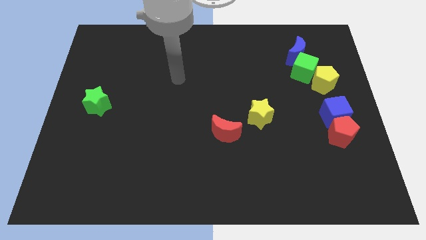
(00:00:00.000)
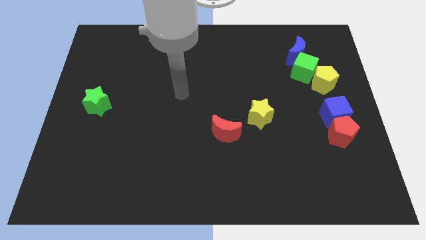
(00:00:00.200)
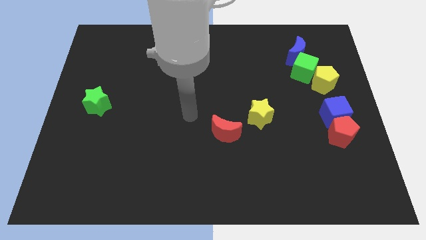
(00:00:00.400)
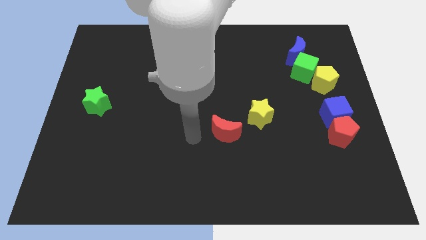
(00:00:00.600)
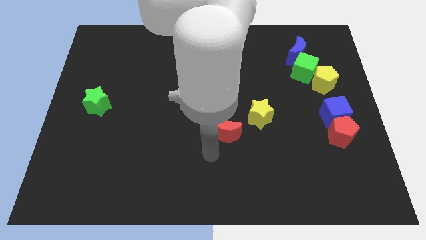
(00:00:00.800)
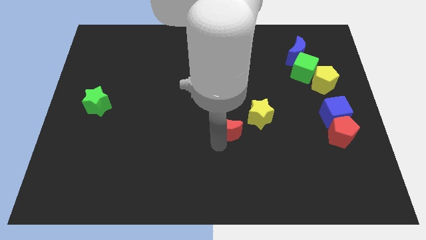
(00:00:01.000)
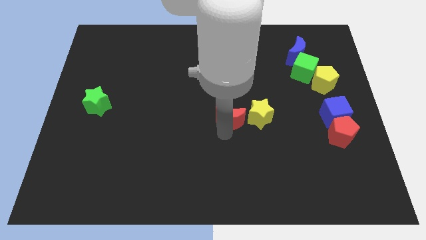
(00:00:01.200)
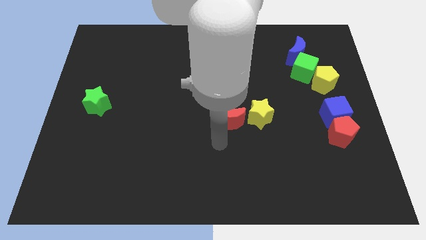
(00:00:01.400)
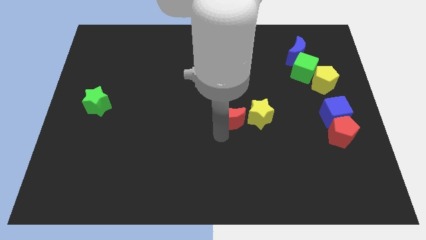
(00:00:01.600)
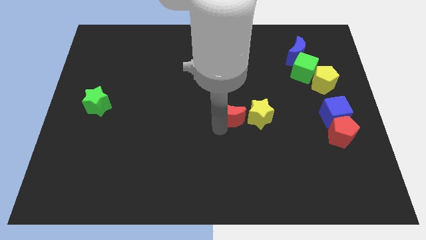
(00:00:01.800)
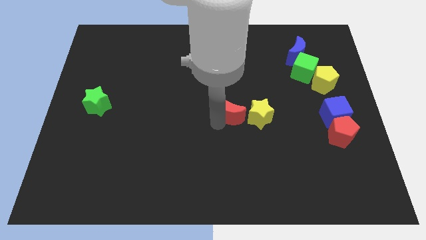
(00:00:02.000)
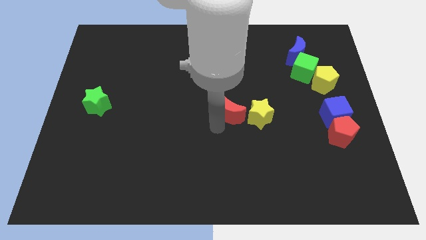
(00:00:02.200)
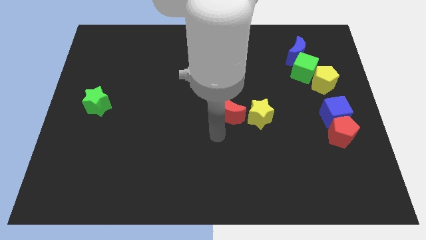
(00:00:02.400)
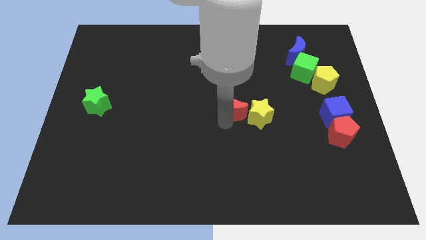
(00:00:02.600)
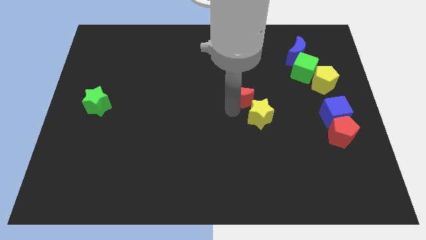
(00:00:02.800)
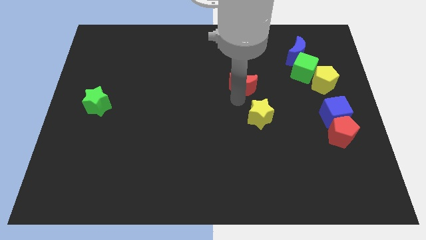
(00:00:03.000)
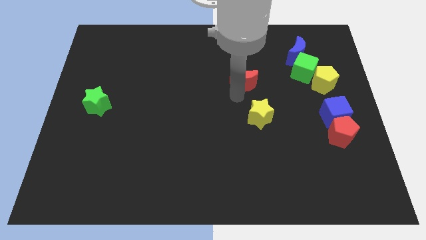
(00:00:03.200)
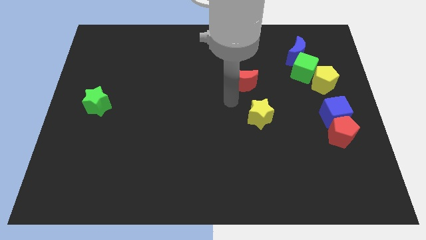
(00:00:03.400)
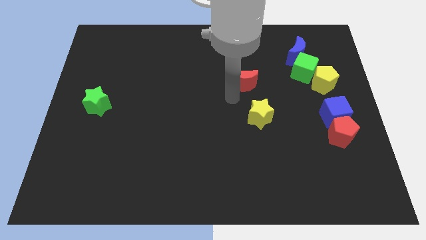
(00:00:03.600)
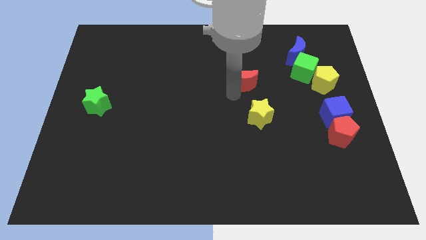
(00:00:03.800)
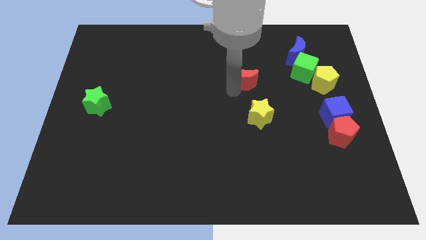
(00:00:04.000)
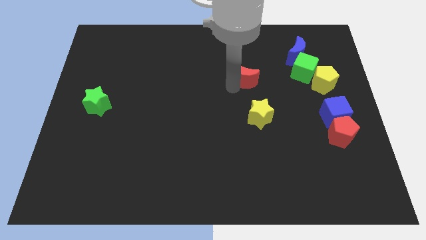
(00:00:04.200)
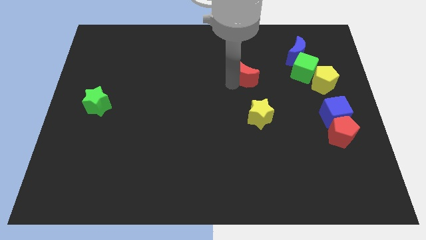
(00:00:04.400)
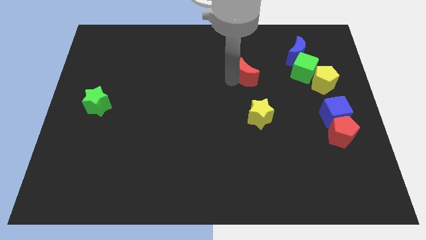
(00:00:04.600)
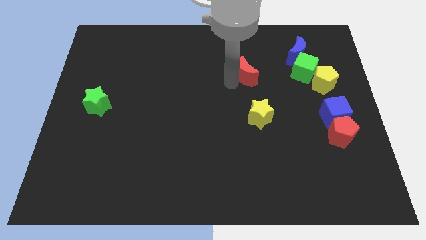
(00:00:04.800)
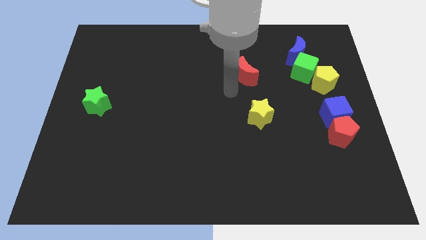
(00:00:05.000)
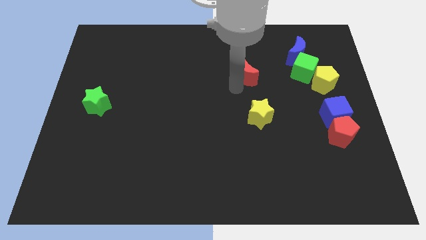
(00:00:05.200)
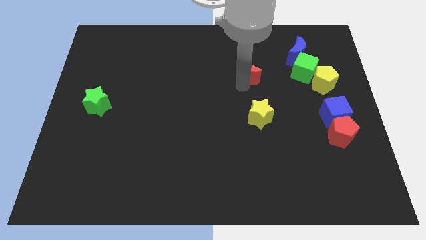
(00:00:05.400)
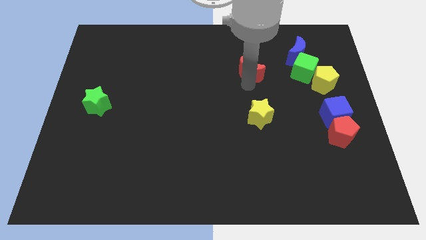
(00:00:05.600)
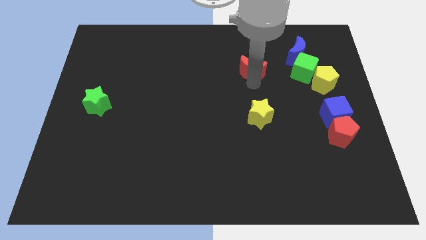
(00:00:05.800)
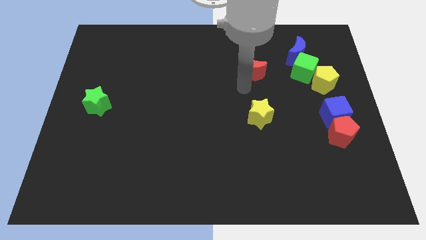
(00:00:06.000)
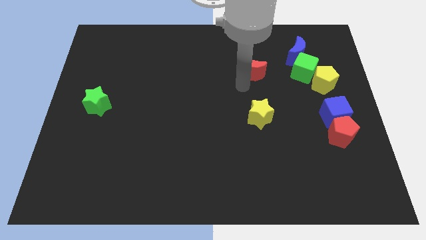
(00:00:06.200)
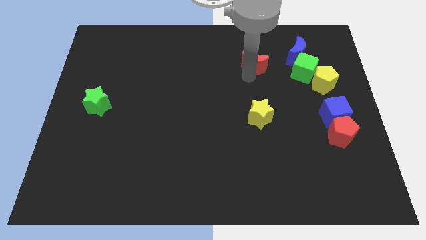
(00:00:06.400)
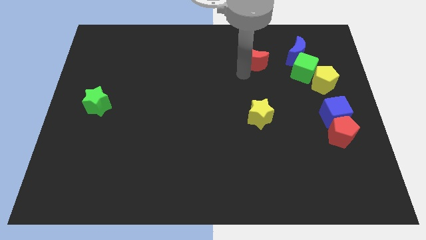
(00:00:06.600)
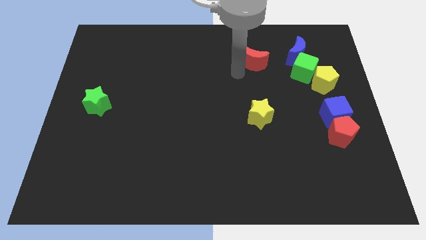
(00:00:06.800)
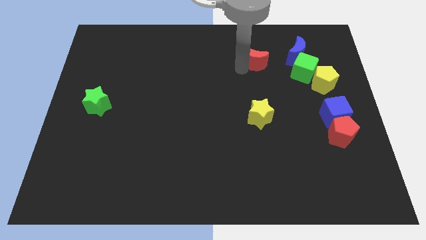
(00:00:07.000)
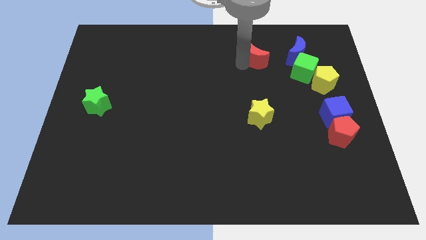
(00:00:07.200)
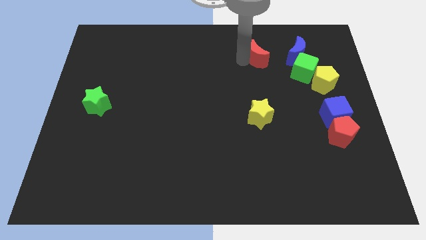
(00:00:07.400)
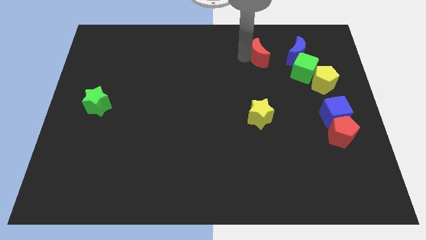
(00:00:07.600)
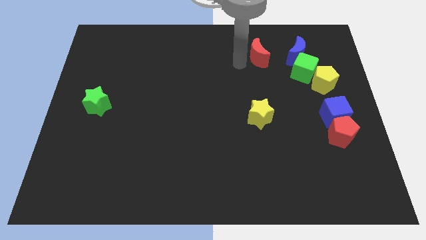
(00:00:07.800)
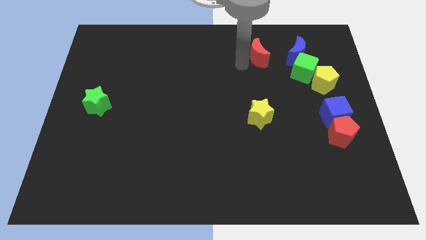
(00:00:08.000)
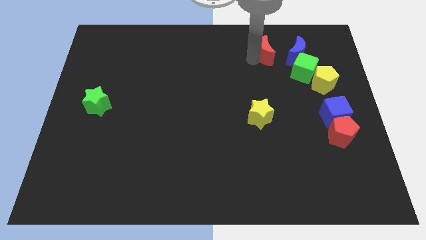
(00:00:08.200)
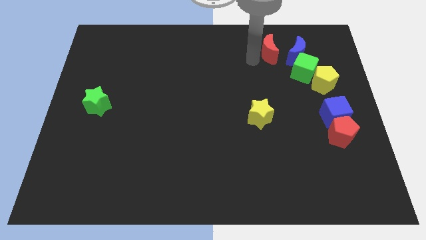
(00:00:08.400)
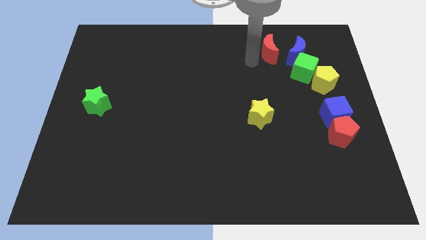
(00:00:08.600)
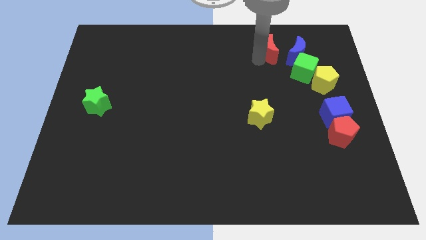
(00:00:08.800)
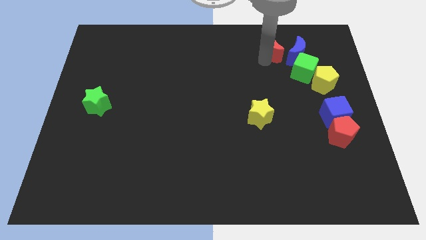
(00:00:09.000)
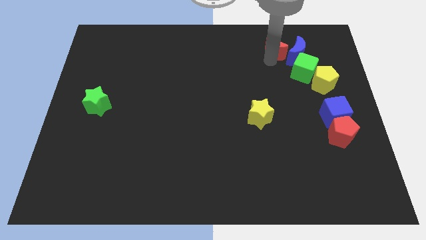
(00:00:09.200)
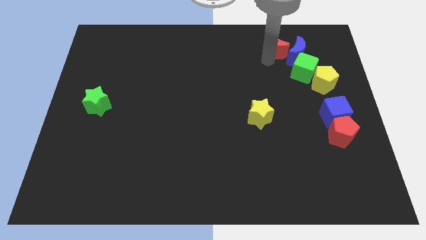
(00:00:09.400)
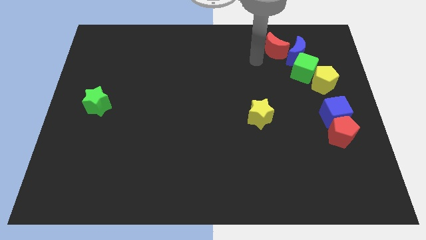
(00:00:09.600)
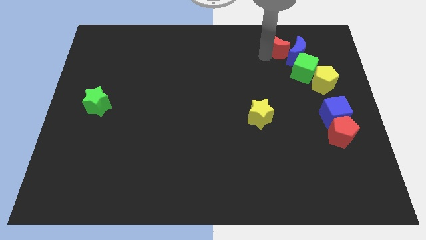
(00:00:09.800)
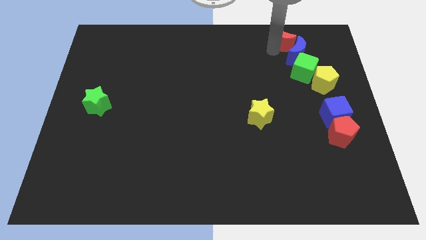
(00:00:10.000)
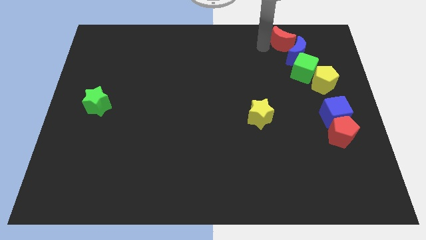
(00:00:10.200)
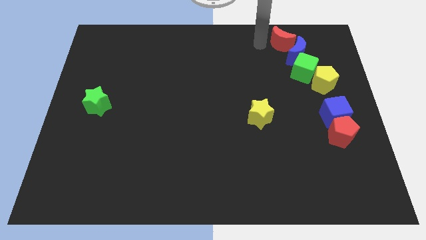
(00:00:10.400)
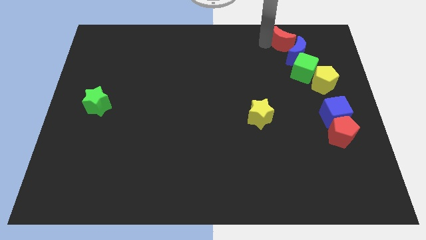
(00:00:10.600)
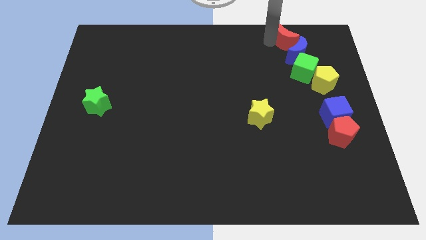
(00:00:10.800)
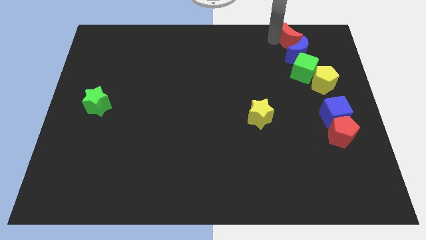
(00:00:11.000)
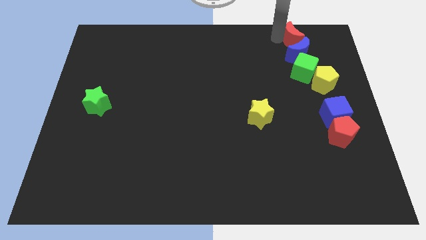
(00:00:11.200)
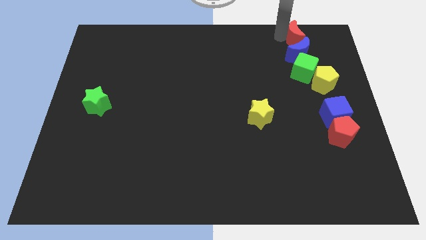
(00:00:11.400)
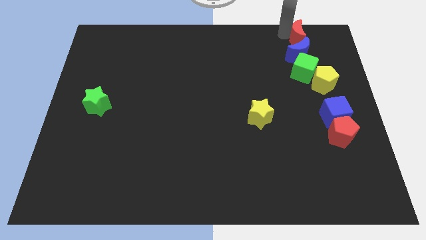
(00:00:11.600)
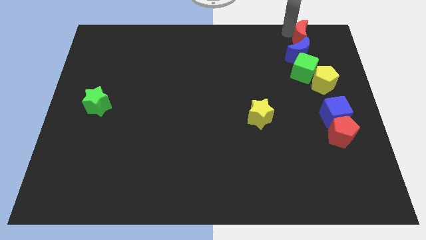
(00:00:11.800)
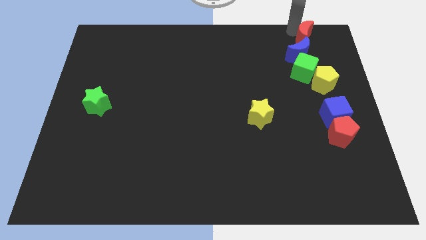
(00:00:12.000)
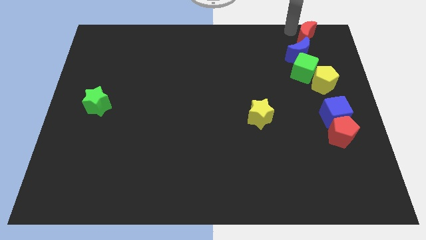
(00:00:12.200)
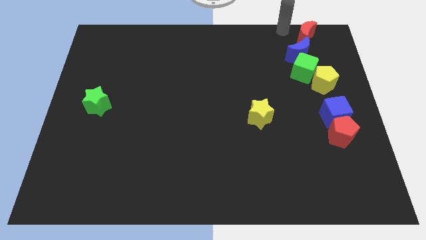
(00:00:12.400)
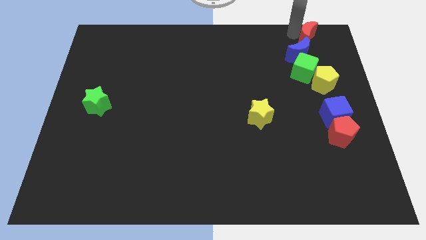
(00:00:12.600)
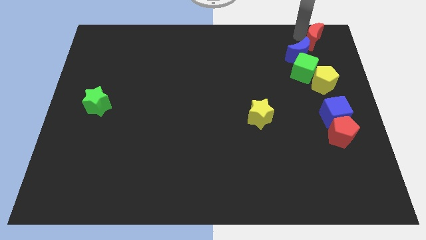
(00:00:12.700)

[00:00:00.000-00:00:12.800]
slide the red moon to the upper right corner
